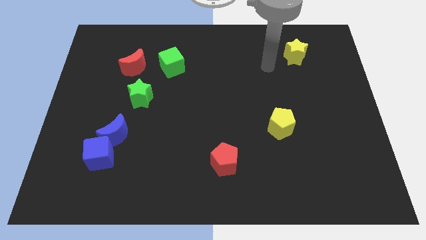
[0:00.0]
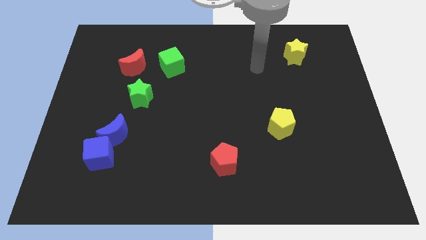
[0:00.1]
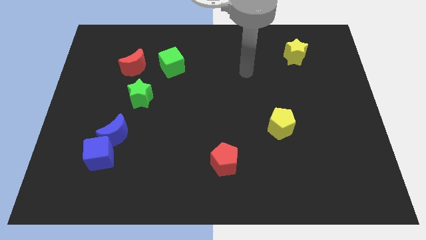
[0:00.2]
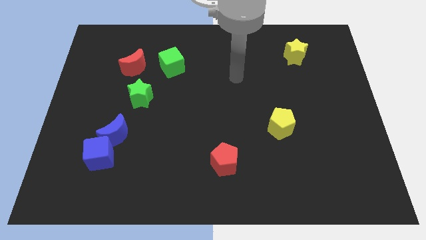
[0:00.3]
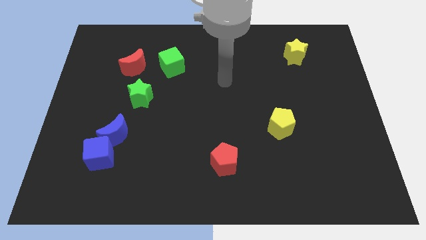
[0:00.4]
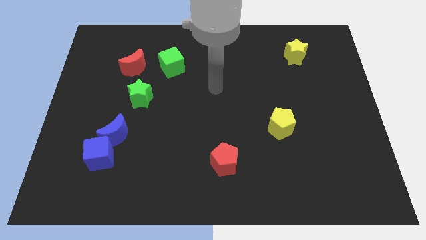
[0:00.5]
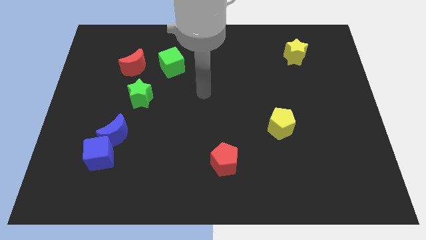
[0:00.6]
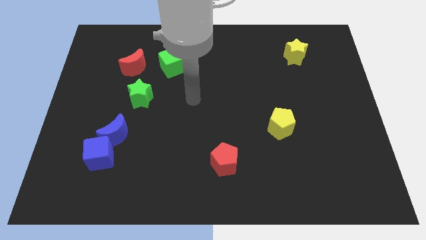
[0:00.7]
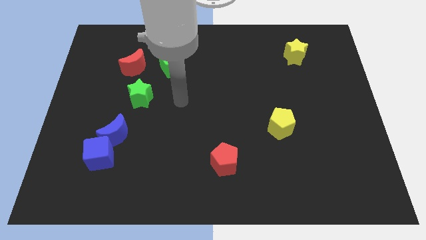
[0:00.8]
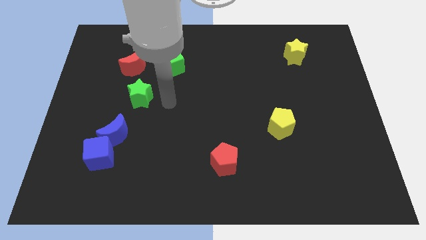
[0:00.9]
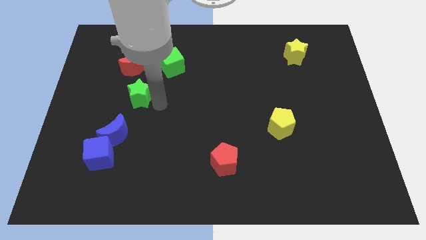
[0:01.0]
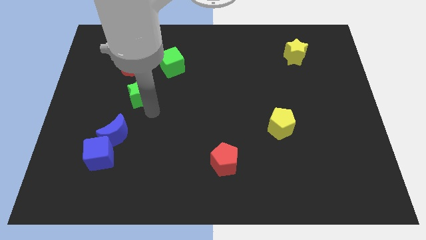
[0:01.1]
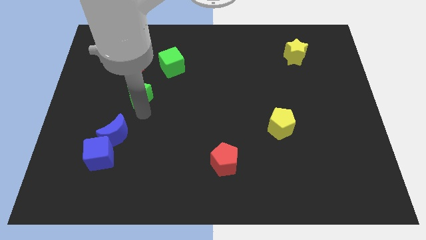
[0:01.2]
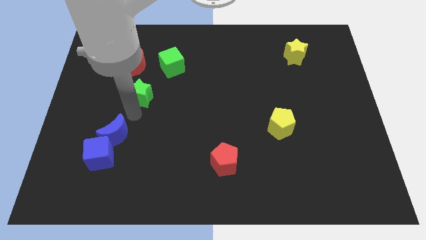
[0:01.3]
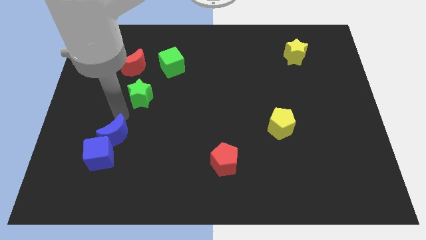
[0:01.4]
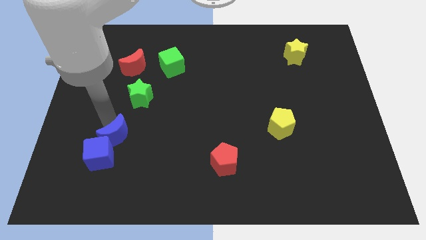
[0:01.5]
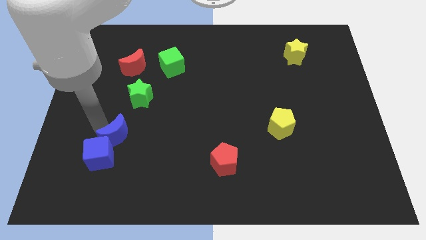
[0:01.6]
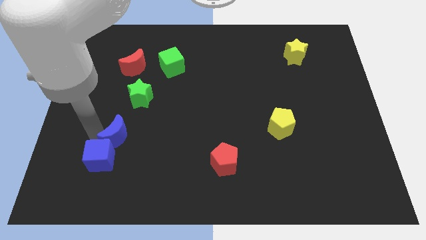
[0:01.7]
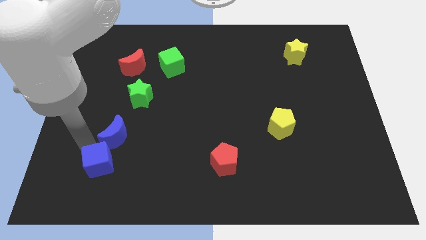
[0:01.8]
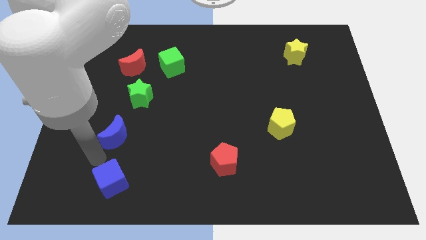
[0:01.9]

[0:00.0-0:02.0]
pull the blue moon apart from the blue cube

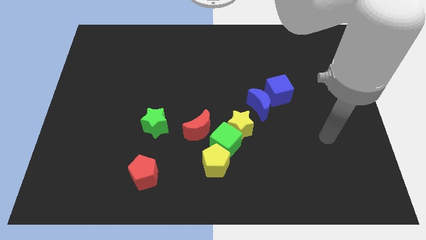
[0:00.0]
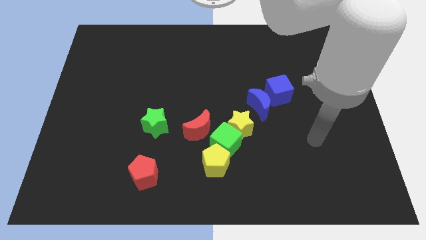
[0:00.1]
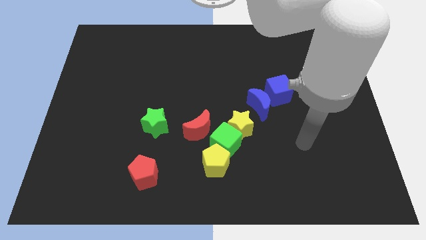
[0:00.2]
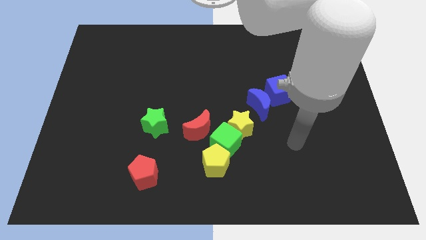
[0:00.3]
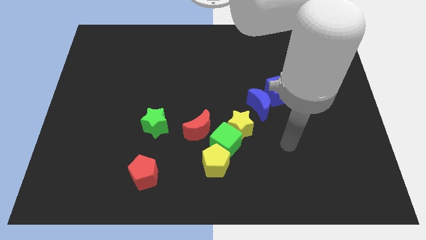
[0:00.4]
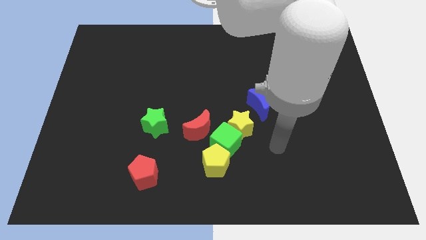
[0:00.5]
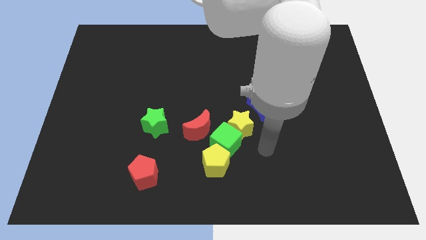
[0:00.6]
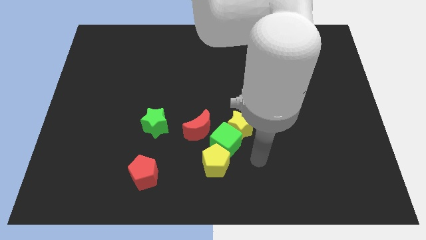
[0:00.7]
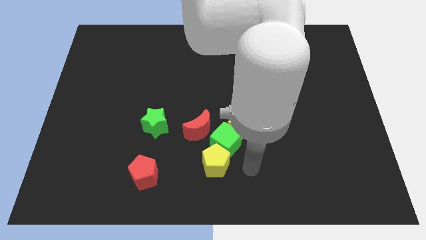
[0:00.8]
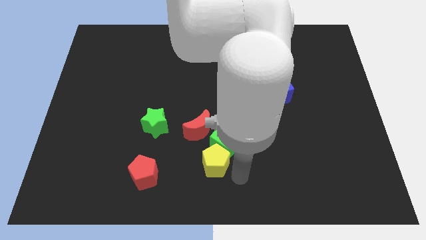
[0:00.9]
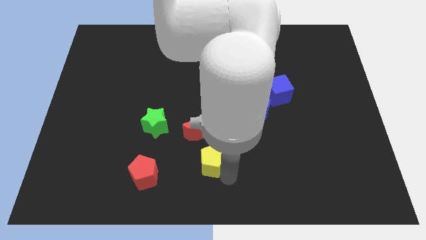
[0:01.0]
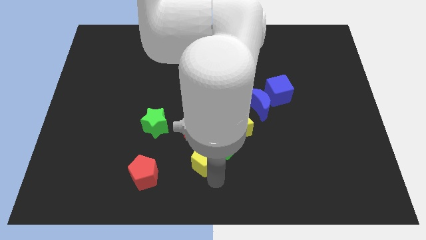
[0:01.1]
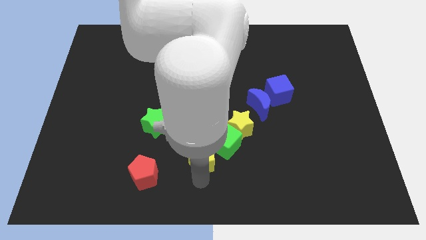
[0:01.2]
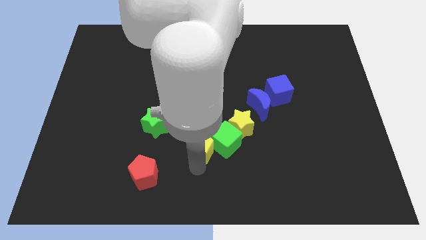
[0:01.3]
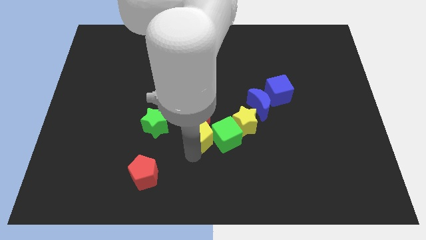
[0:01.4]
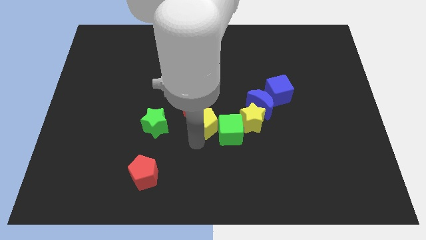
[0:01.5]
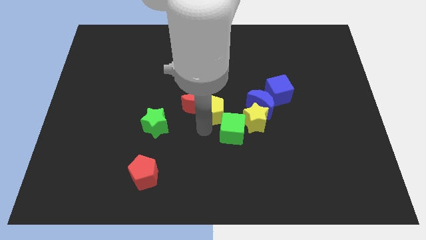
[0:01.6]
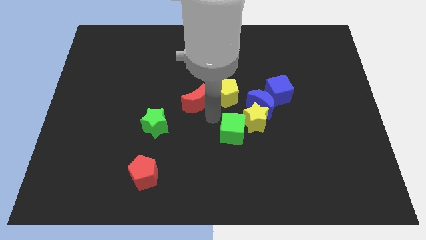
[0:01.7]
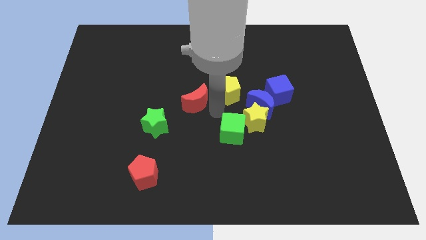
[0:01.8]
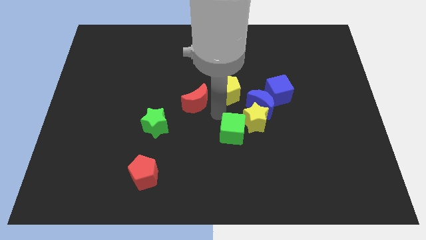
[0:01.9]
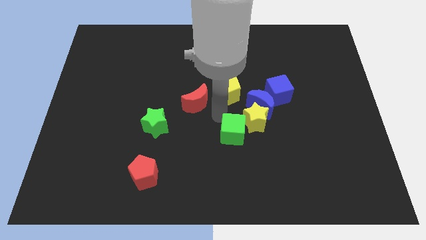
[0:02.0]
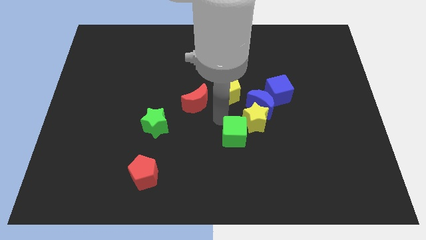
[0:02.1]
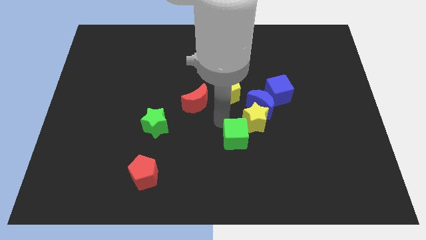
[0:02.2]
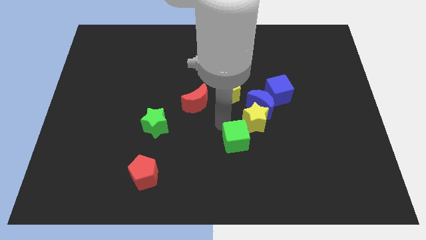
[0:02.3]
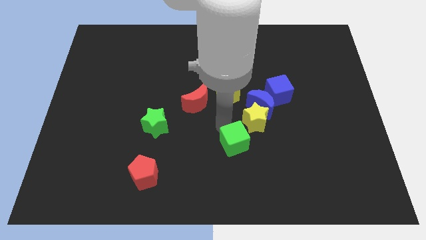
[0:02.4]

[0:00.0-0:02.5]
pull the green cube apart from the yellow star, yellow pentagon, and red moon

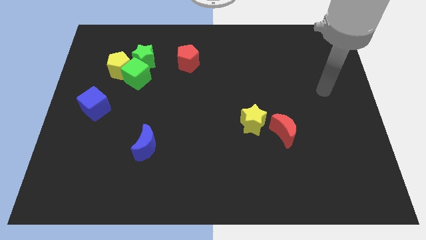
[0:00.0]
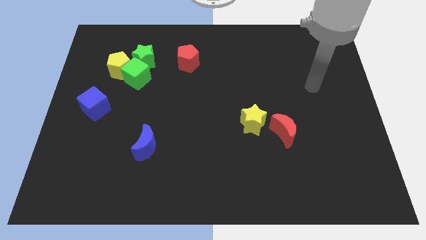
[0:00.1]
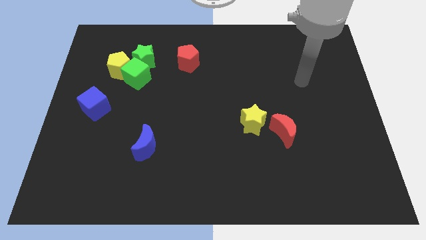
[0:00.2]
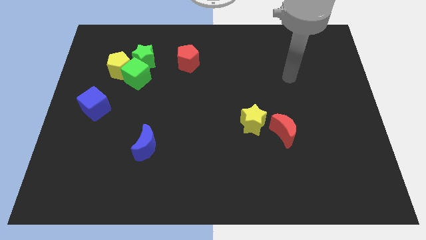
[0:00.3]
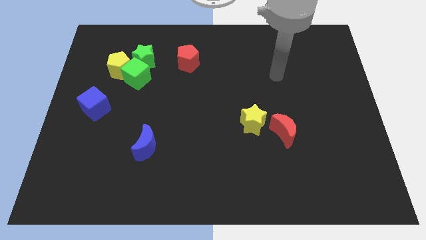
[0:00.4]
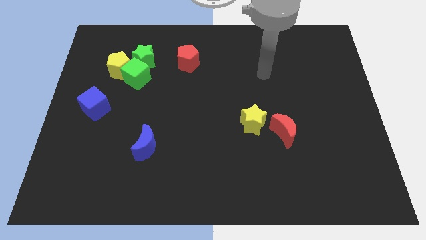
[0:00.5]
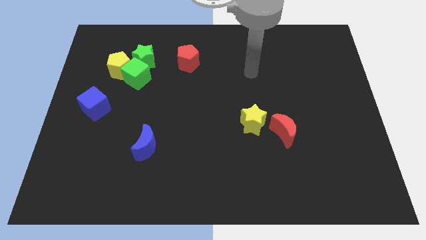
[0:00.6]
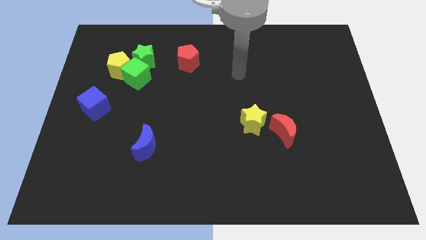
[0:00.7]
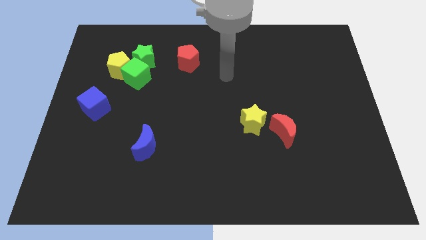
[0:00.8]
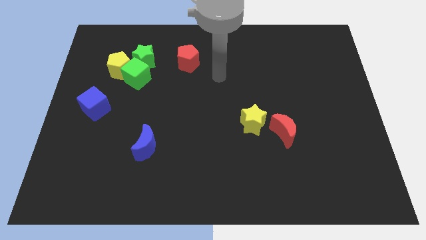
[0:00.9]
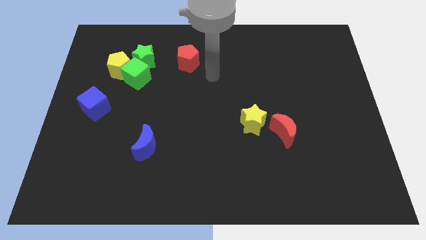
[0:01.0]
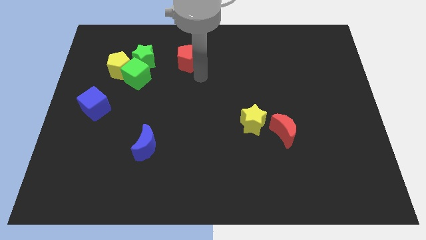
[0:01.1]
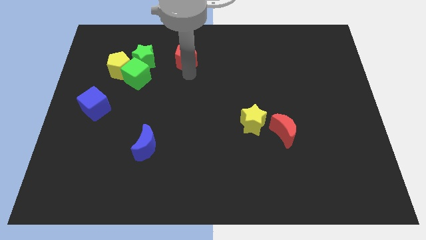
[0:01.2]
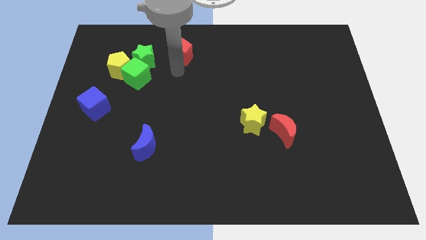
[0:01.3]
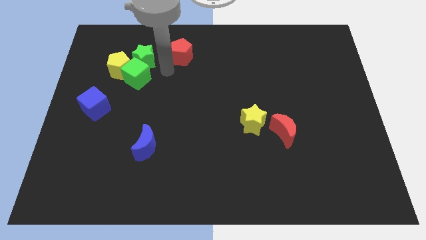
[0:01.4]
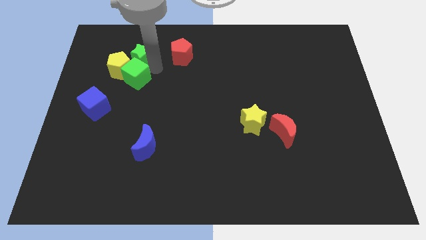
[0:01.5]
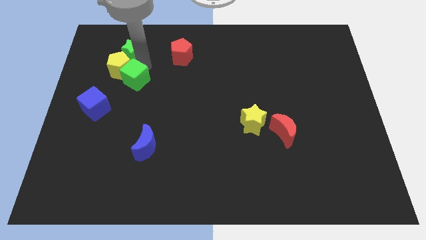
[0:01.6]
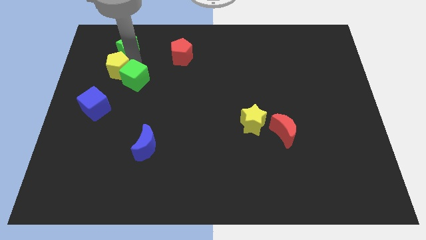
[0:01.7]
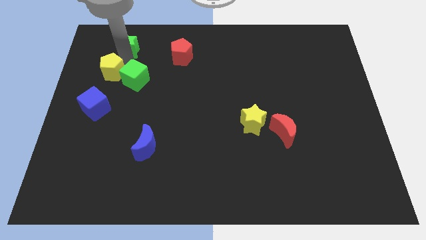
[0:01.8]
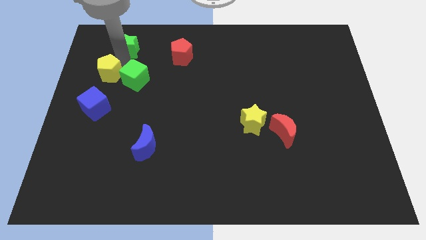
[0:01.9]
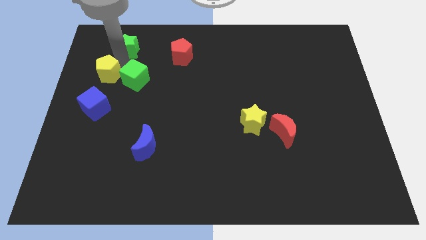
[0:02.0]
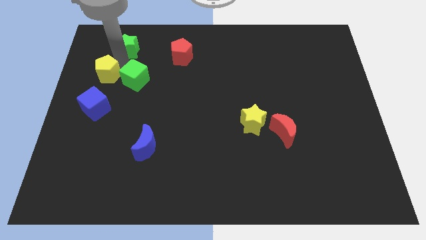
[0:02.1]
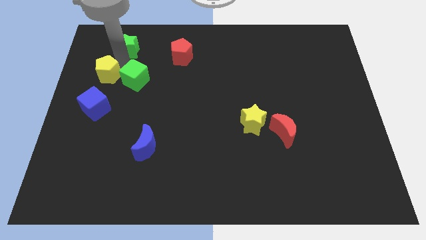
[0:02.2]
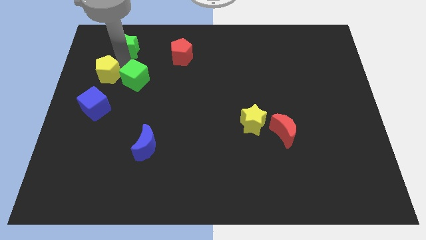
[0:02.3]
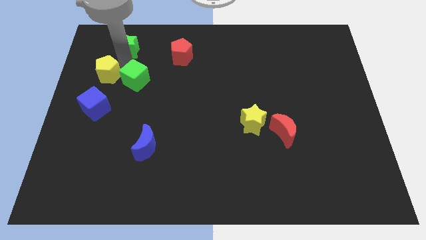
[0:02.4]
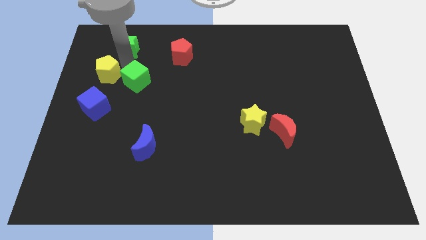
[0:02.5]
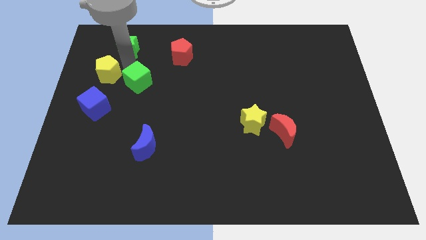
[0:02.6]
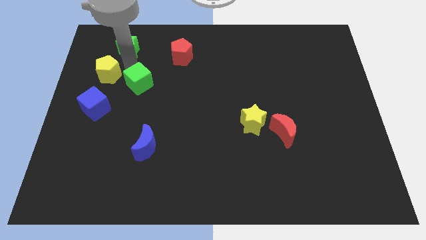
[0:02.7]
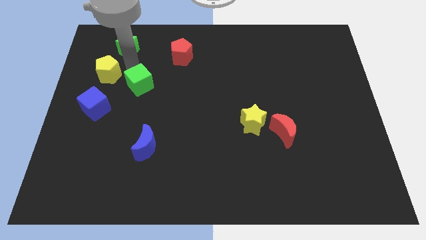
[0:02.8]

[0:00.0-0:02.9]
pull the green cube apart from the yellow pentagon and green star

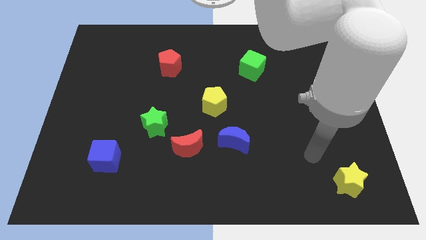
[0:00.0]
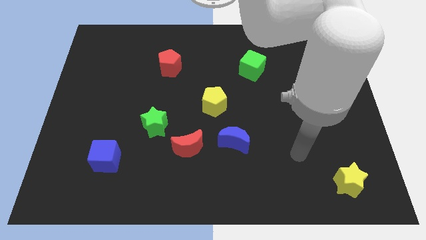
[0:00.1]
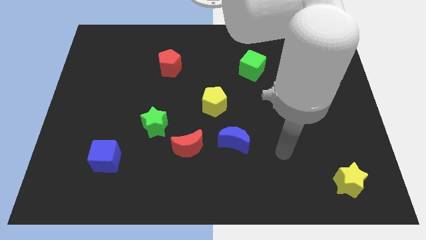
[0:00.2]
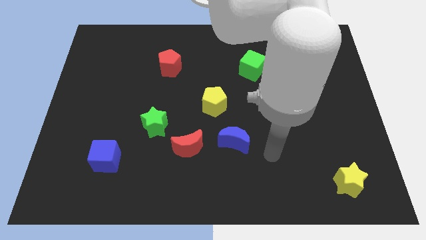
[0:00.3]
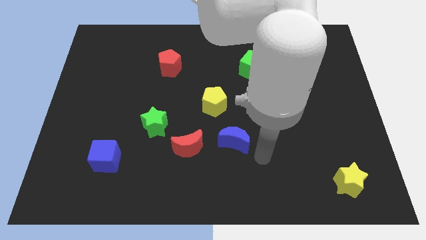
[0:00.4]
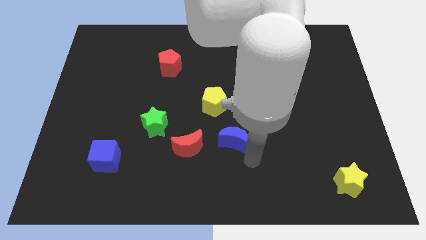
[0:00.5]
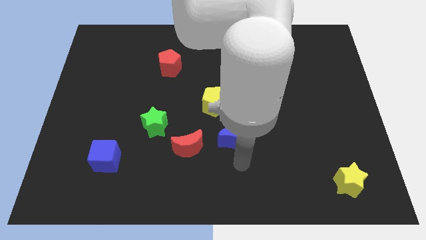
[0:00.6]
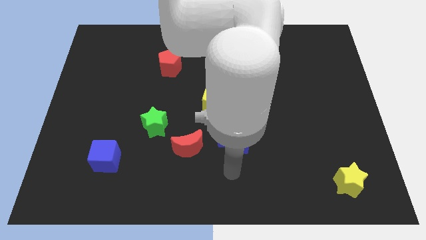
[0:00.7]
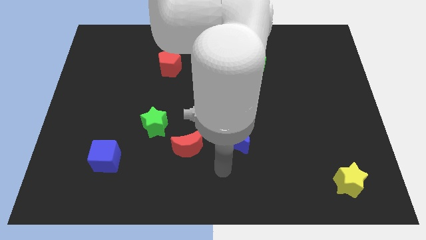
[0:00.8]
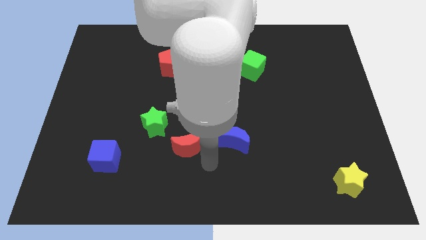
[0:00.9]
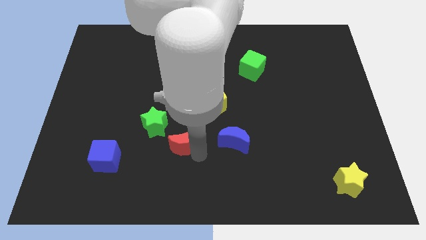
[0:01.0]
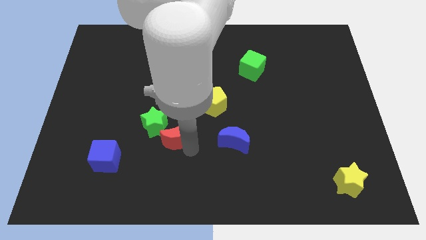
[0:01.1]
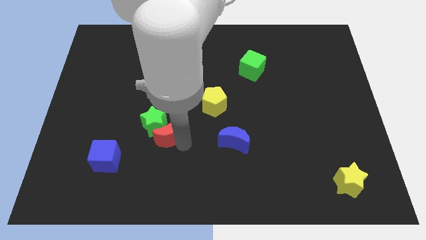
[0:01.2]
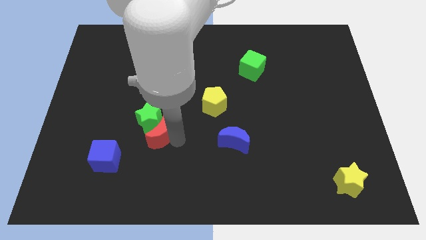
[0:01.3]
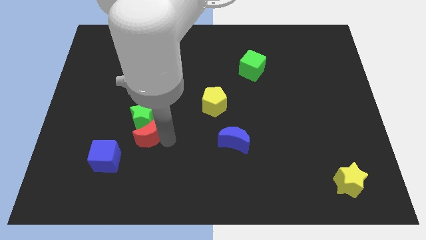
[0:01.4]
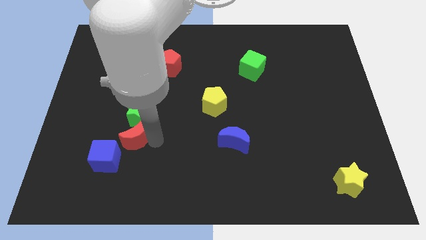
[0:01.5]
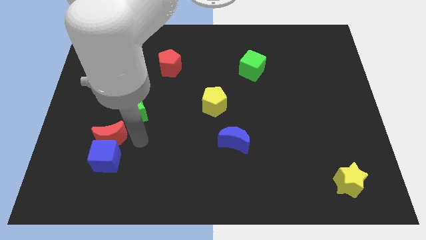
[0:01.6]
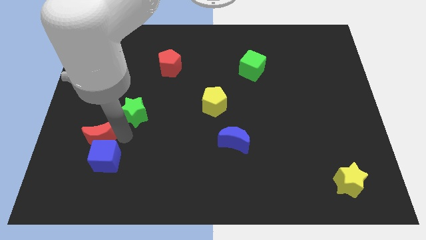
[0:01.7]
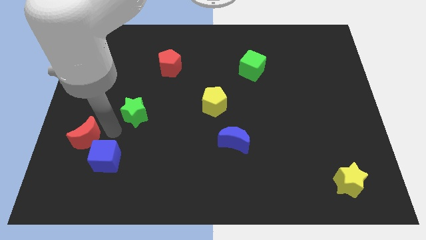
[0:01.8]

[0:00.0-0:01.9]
separate the green star from the red moon
